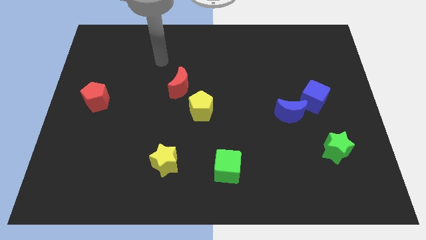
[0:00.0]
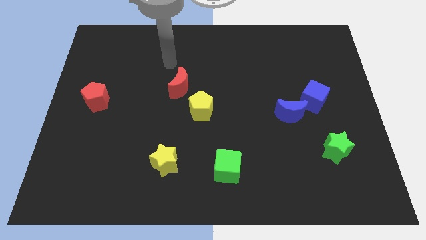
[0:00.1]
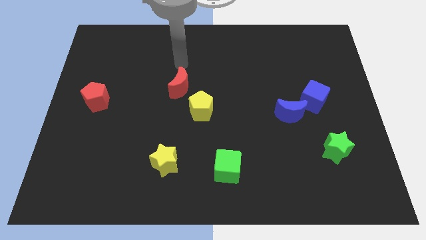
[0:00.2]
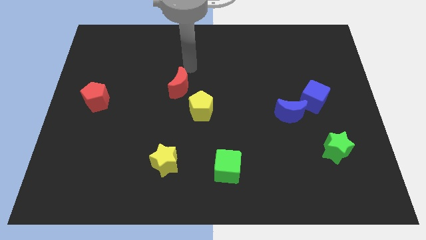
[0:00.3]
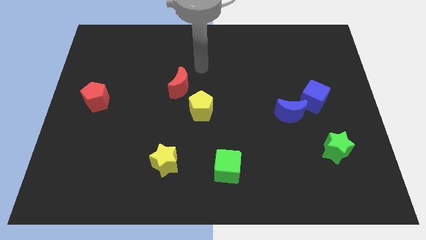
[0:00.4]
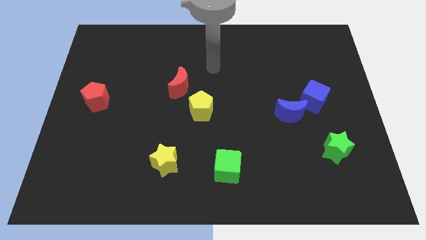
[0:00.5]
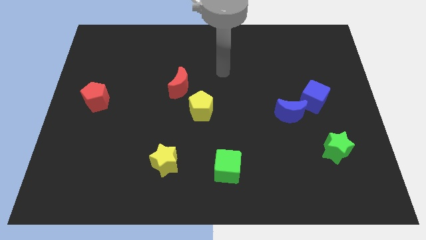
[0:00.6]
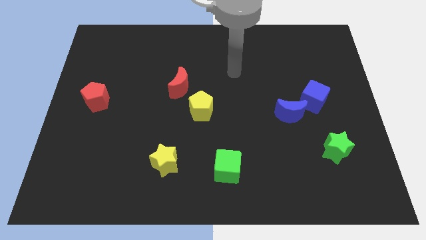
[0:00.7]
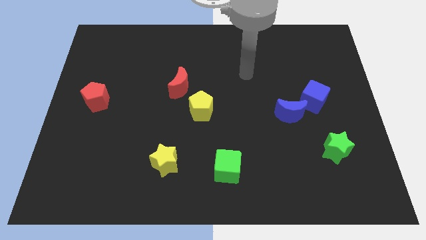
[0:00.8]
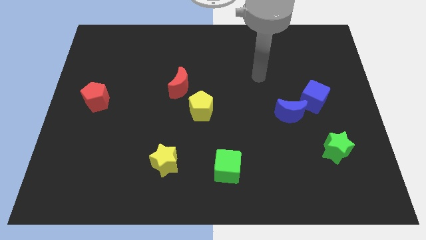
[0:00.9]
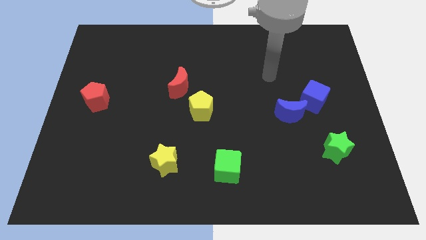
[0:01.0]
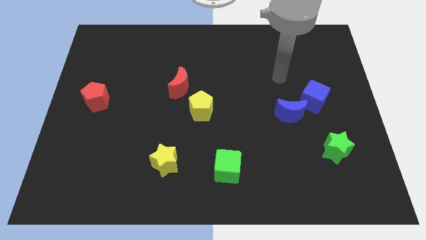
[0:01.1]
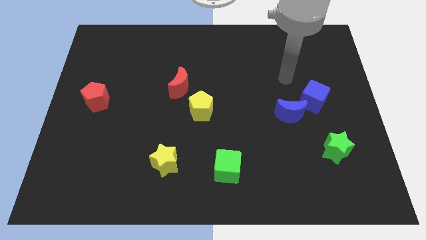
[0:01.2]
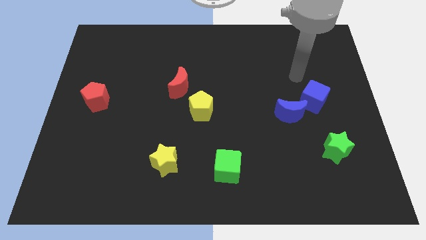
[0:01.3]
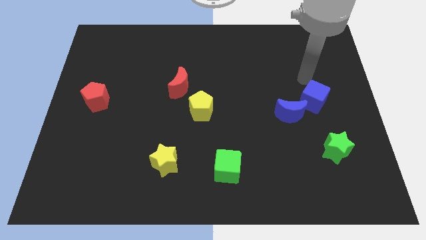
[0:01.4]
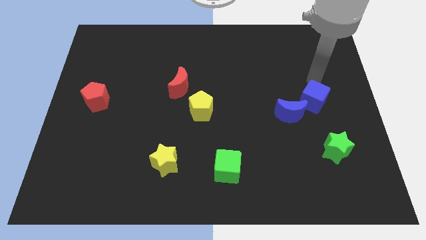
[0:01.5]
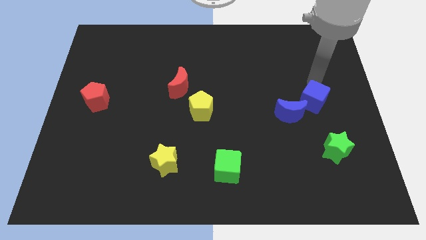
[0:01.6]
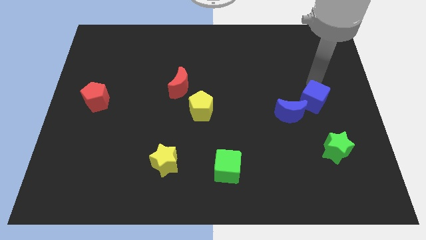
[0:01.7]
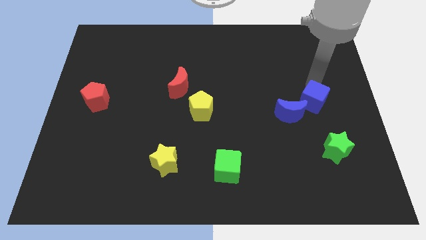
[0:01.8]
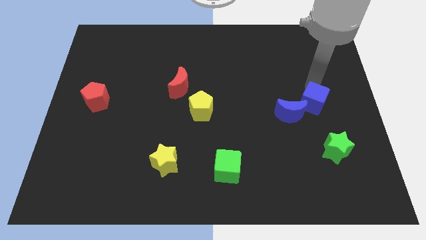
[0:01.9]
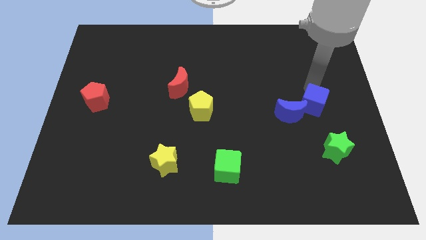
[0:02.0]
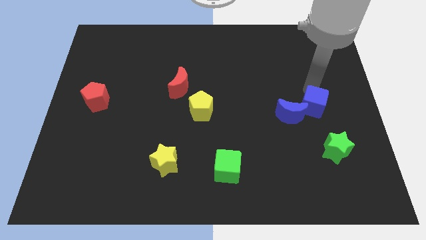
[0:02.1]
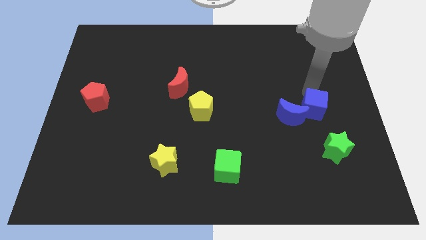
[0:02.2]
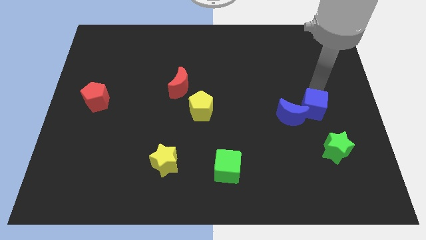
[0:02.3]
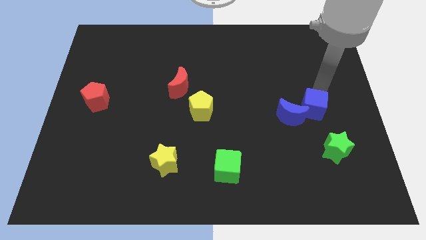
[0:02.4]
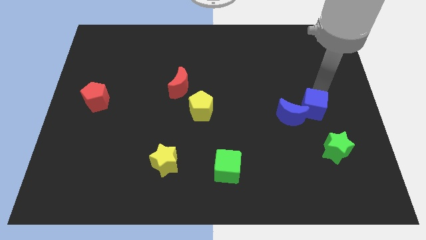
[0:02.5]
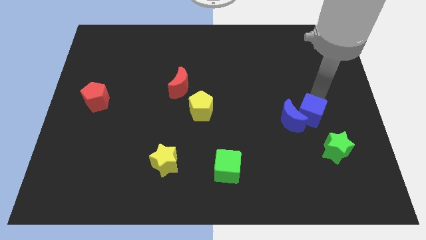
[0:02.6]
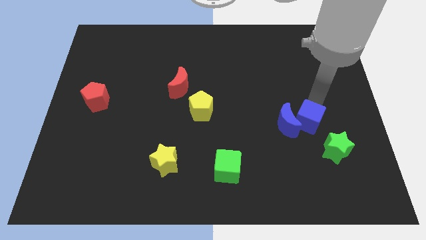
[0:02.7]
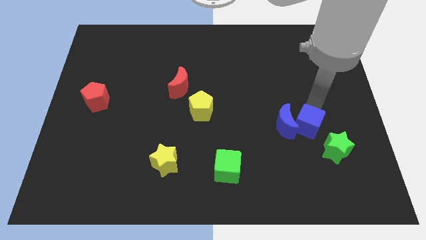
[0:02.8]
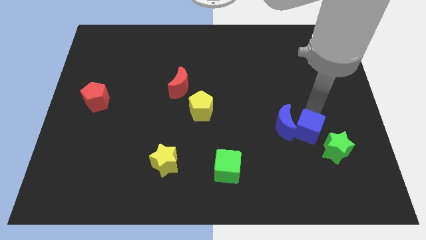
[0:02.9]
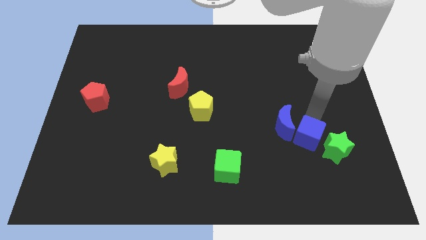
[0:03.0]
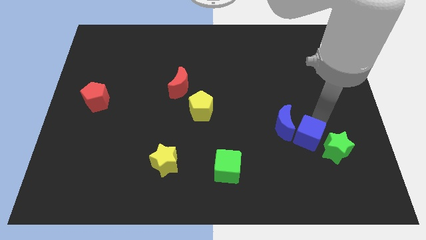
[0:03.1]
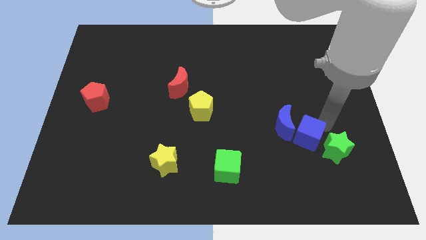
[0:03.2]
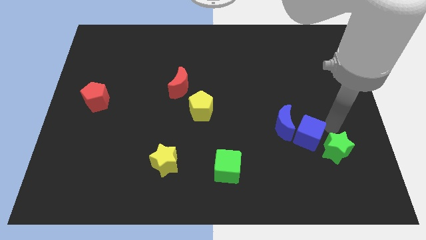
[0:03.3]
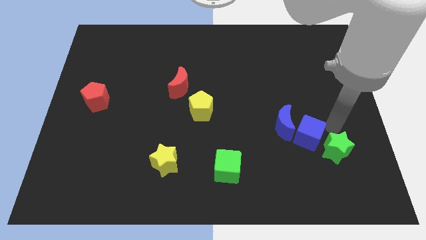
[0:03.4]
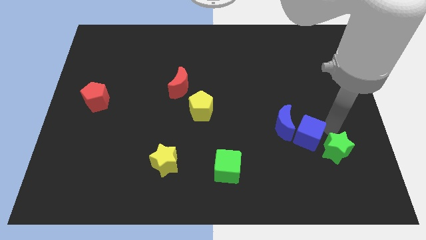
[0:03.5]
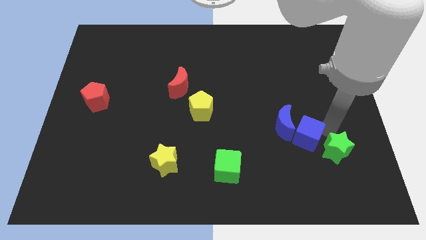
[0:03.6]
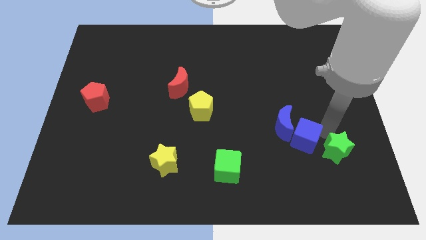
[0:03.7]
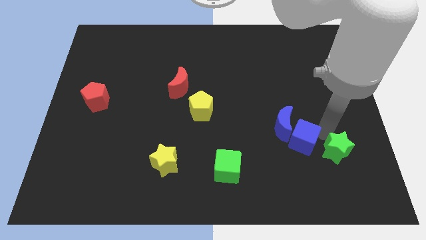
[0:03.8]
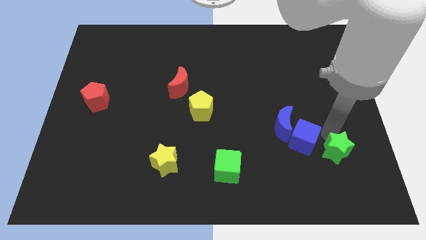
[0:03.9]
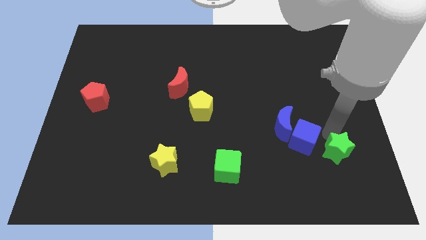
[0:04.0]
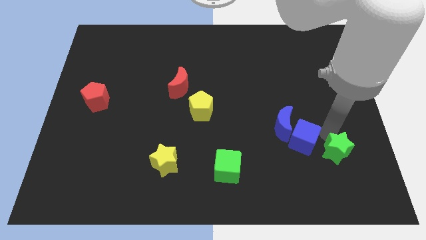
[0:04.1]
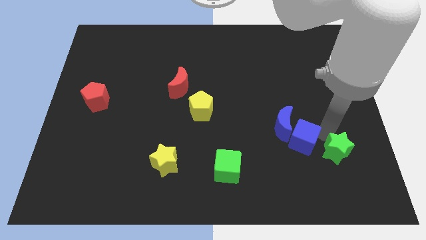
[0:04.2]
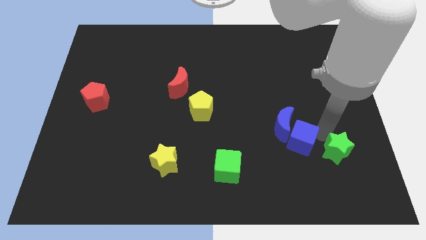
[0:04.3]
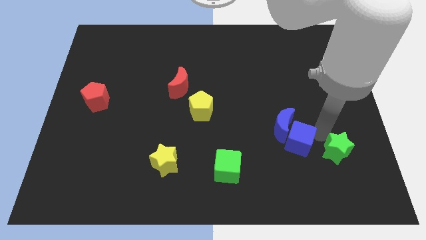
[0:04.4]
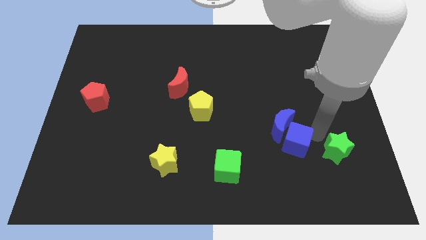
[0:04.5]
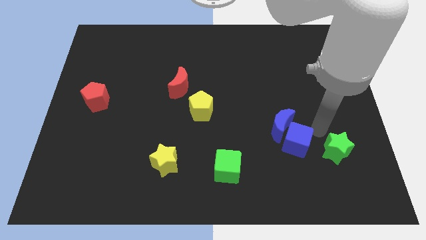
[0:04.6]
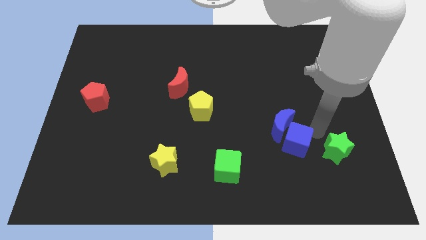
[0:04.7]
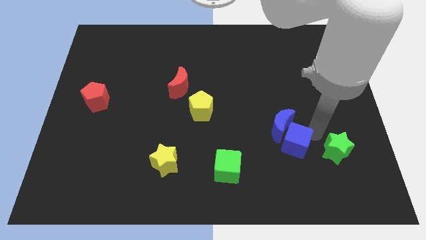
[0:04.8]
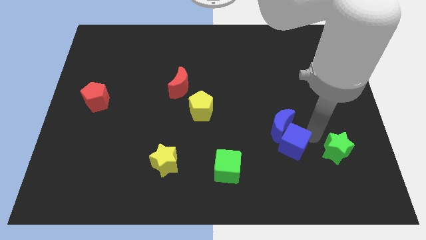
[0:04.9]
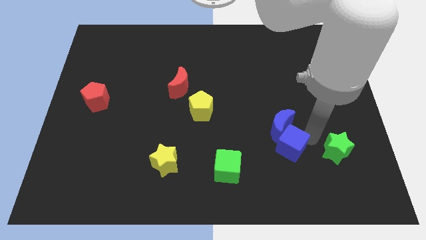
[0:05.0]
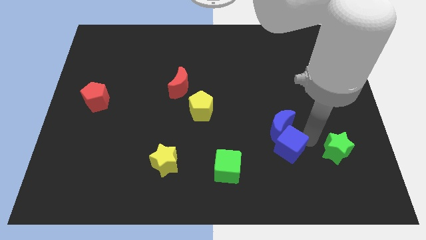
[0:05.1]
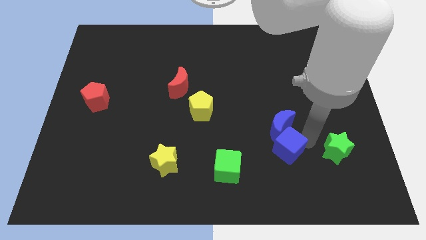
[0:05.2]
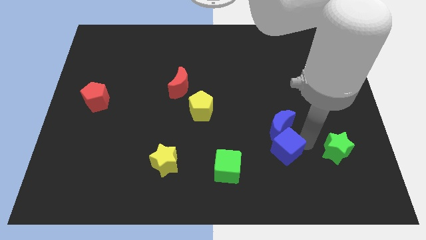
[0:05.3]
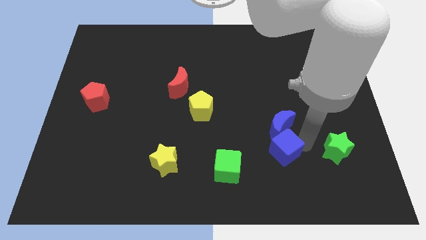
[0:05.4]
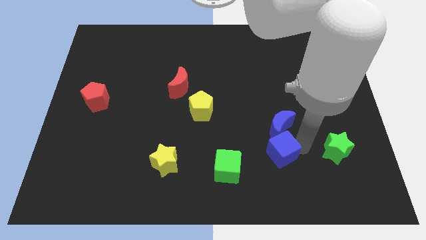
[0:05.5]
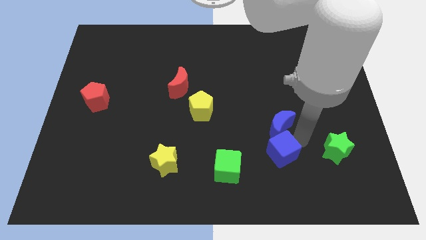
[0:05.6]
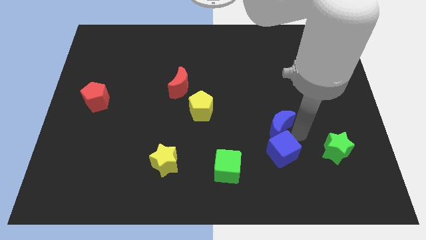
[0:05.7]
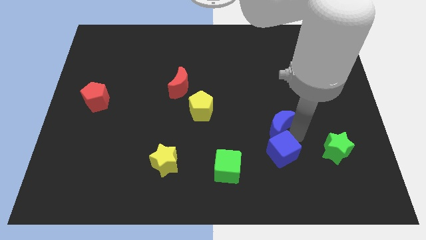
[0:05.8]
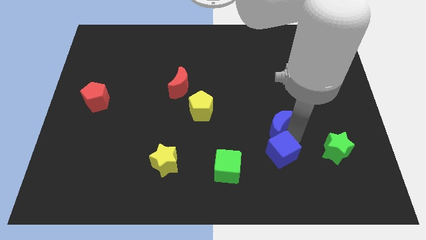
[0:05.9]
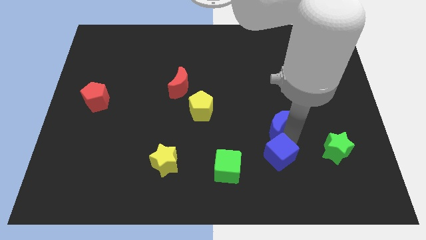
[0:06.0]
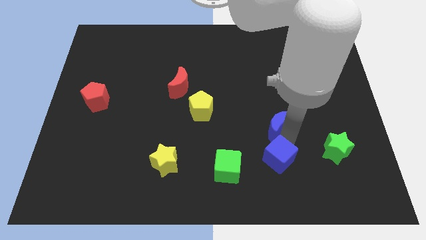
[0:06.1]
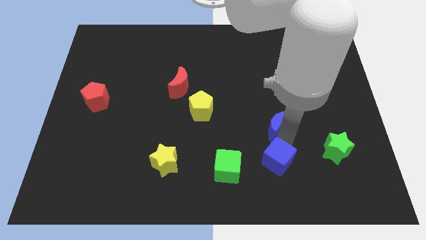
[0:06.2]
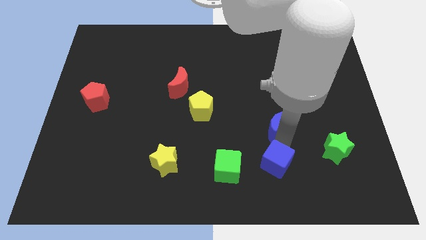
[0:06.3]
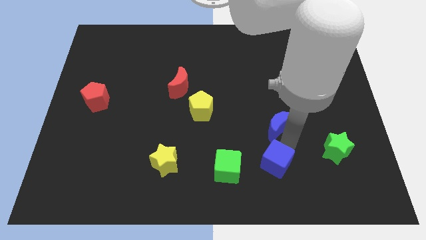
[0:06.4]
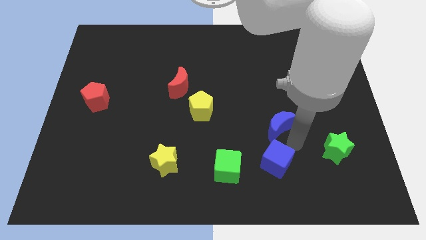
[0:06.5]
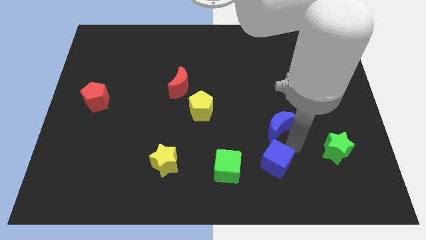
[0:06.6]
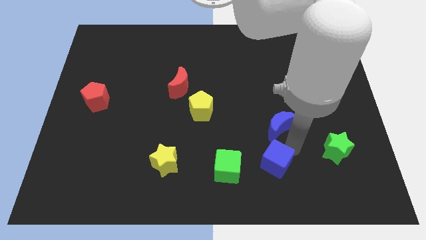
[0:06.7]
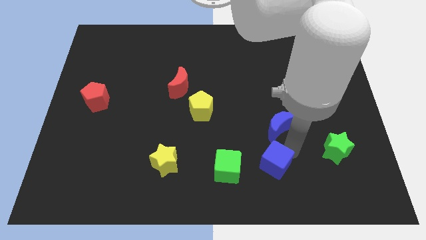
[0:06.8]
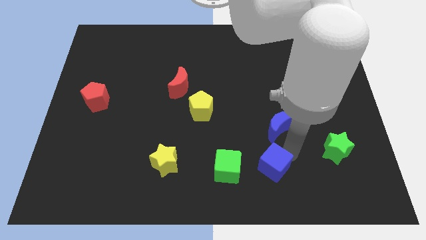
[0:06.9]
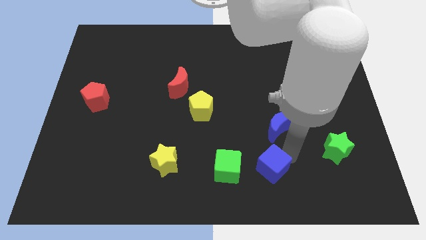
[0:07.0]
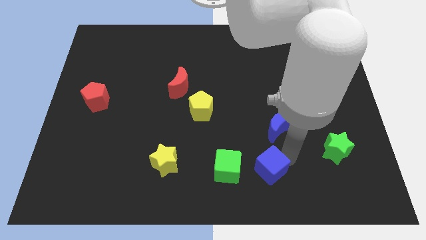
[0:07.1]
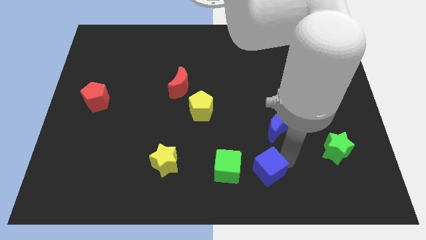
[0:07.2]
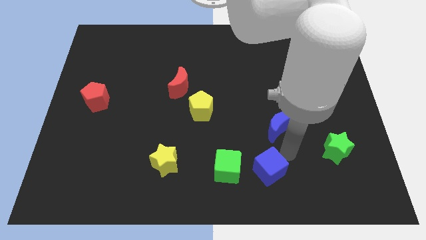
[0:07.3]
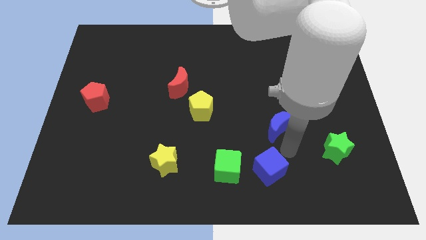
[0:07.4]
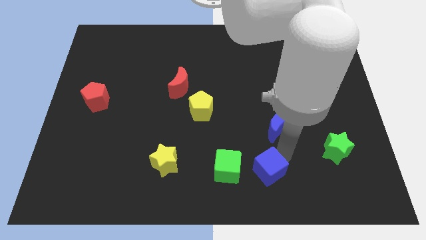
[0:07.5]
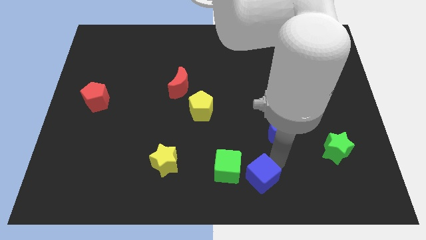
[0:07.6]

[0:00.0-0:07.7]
slide the blue cube to the bottom
